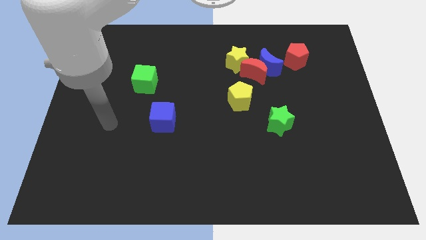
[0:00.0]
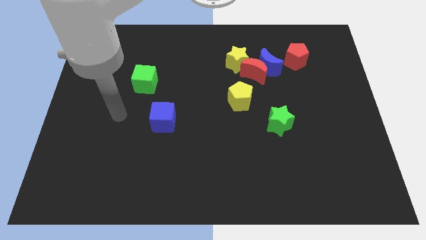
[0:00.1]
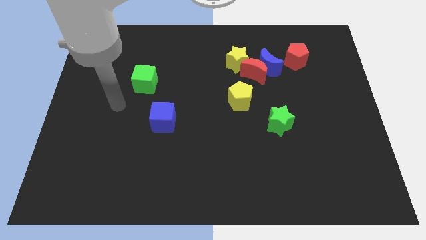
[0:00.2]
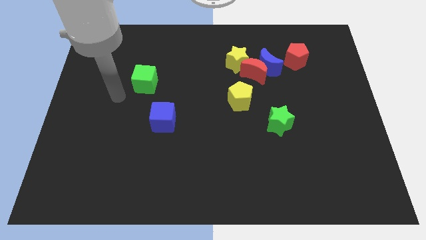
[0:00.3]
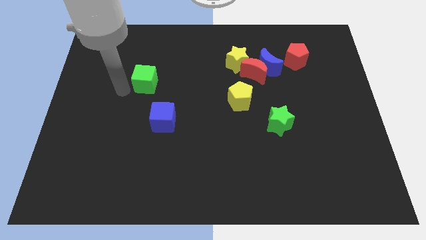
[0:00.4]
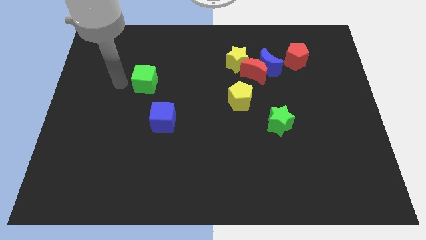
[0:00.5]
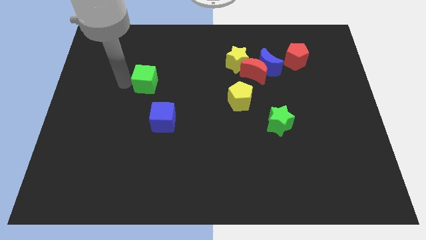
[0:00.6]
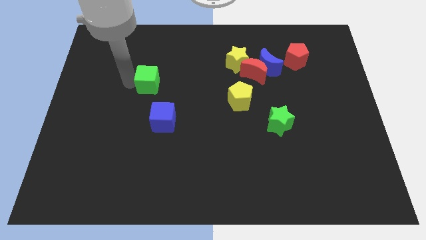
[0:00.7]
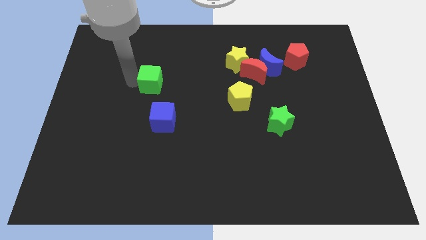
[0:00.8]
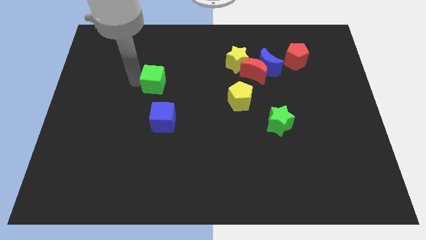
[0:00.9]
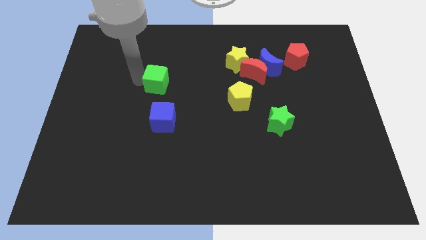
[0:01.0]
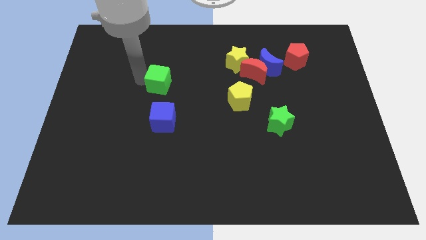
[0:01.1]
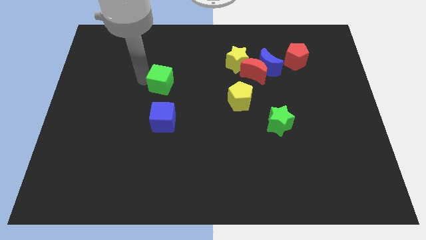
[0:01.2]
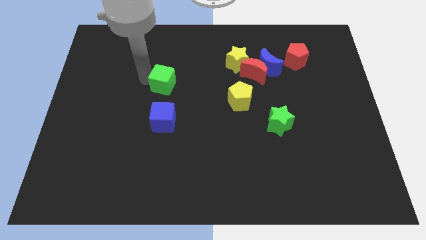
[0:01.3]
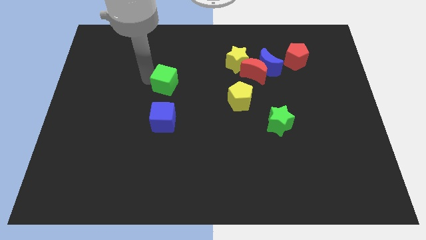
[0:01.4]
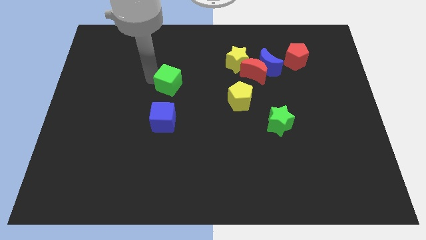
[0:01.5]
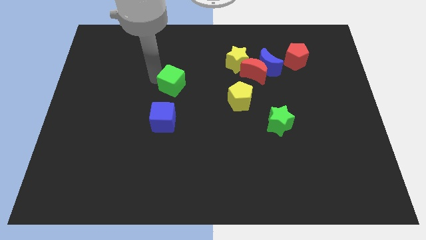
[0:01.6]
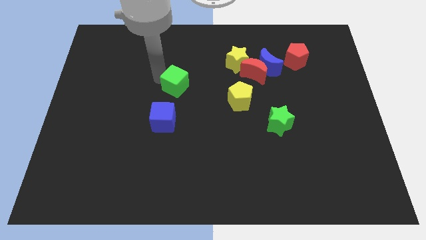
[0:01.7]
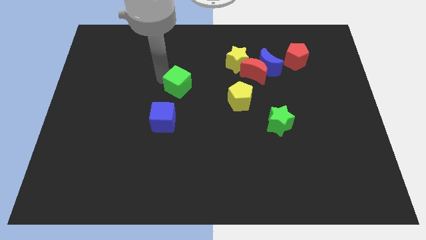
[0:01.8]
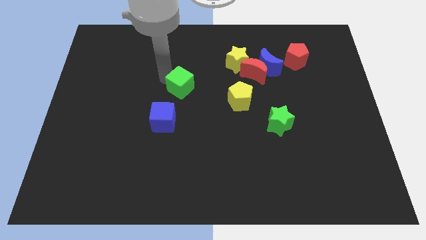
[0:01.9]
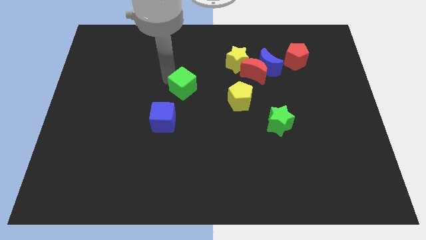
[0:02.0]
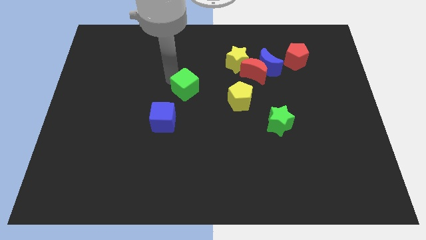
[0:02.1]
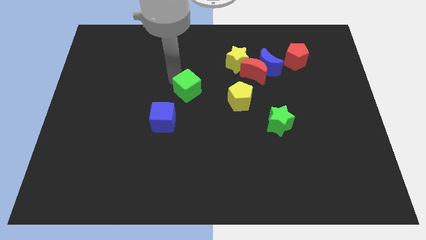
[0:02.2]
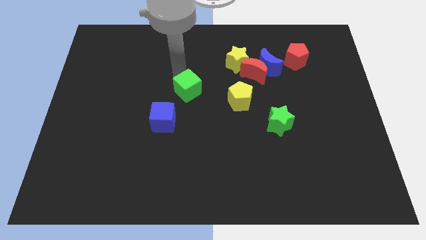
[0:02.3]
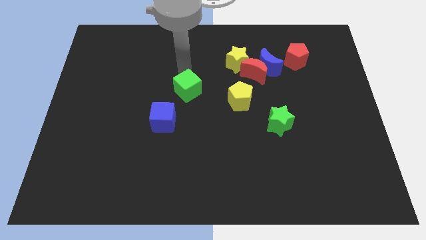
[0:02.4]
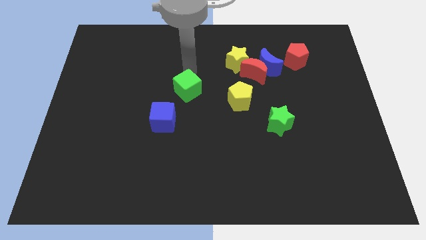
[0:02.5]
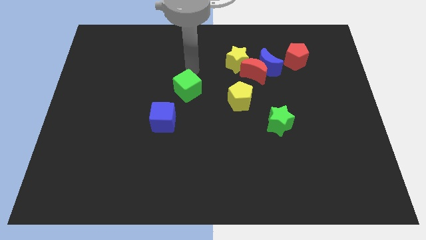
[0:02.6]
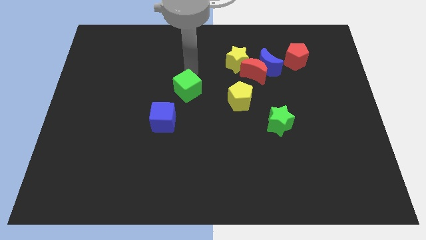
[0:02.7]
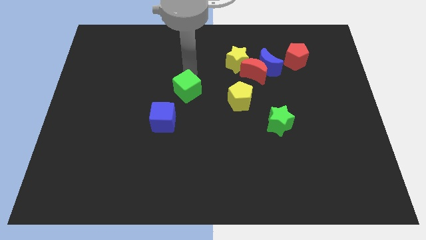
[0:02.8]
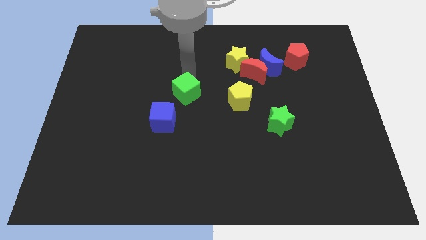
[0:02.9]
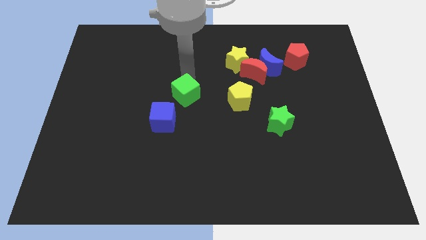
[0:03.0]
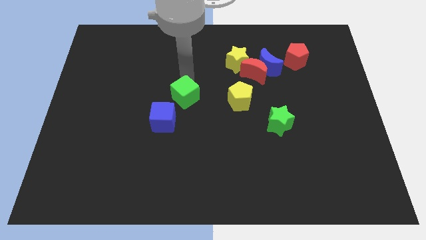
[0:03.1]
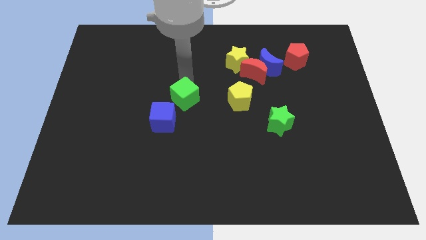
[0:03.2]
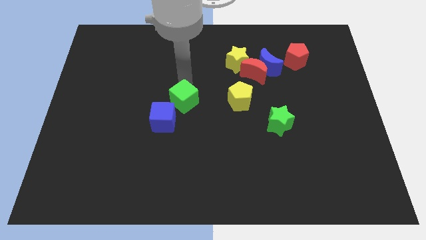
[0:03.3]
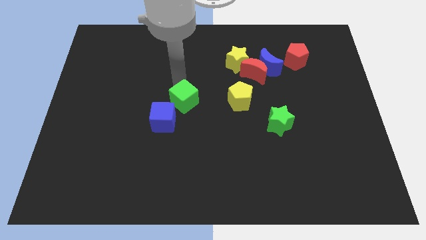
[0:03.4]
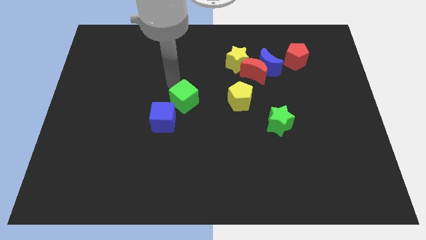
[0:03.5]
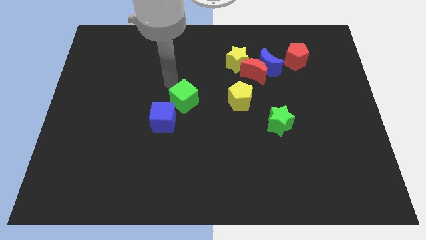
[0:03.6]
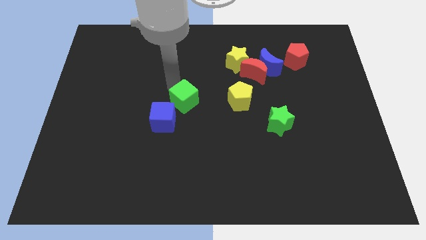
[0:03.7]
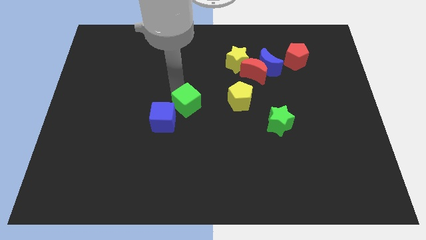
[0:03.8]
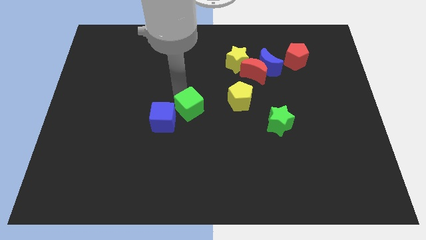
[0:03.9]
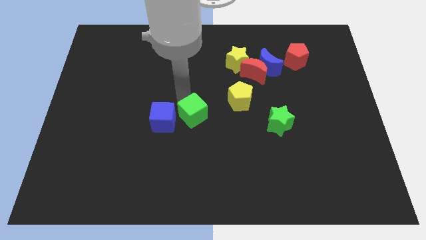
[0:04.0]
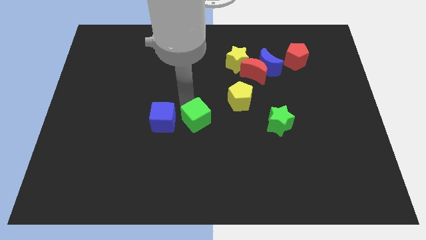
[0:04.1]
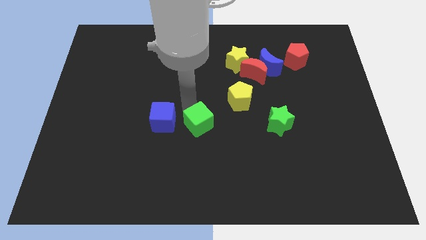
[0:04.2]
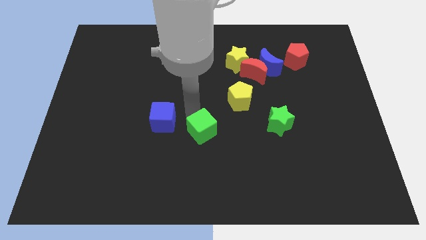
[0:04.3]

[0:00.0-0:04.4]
slide the green cube downwards and right

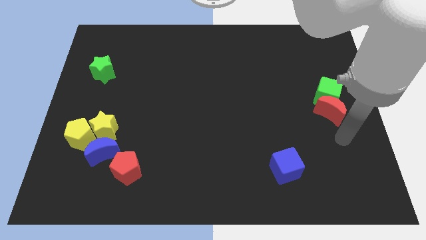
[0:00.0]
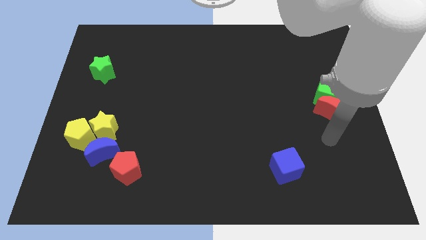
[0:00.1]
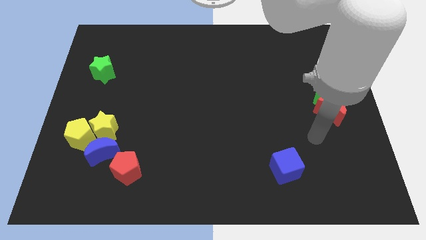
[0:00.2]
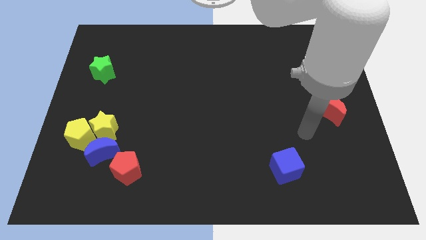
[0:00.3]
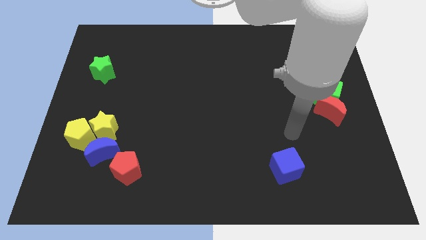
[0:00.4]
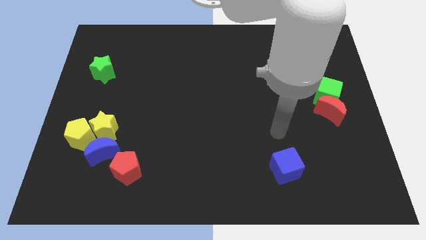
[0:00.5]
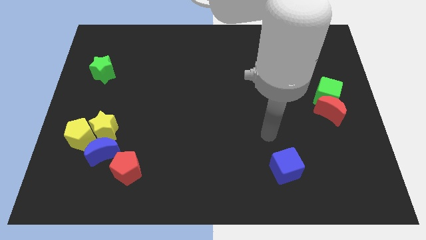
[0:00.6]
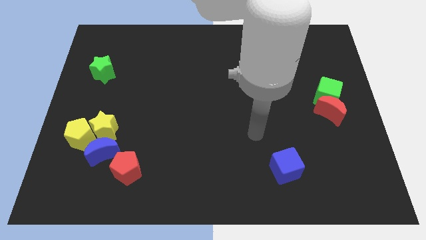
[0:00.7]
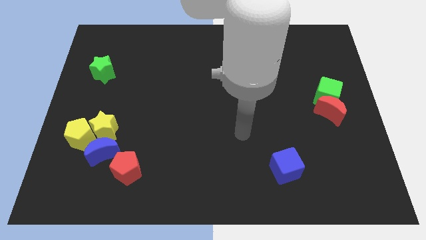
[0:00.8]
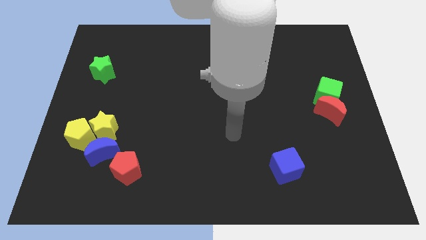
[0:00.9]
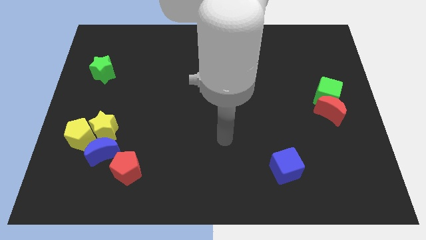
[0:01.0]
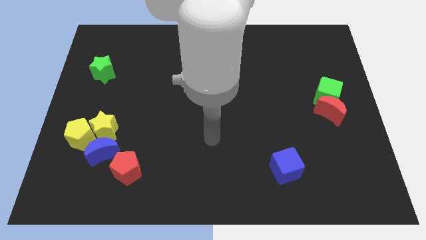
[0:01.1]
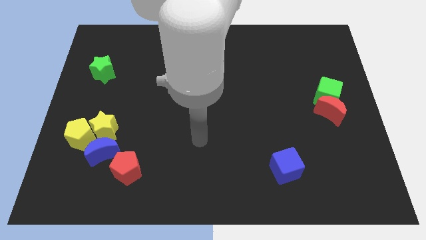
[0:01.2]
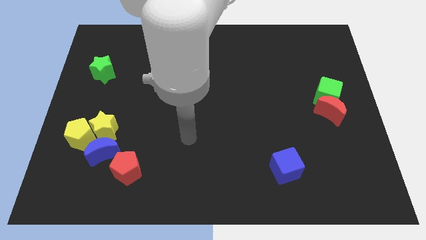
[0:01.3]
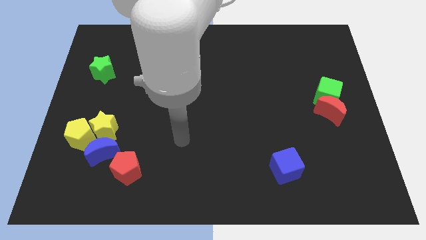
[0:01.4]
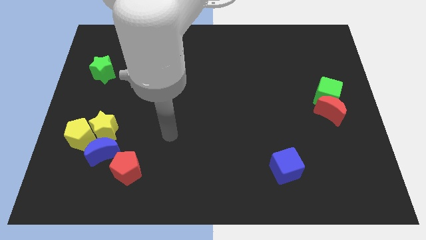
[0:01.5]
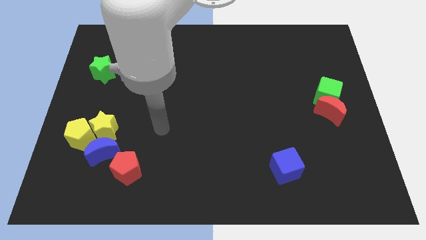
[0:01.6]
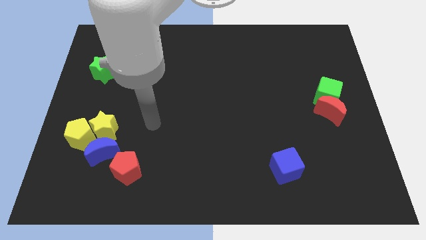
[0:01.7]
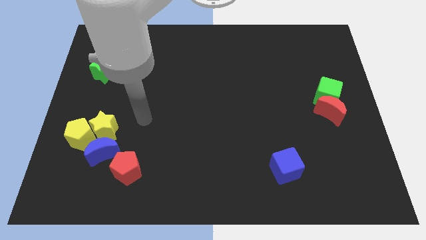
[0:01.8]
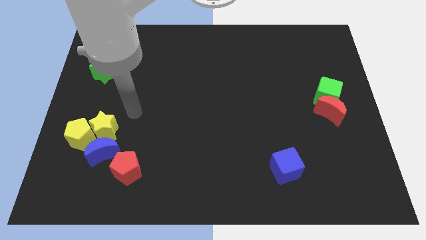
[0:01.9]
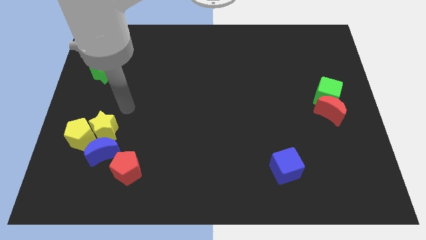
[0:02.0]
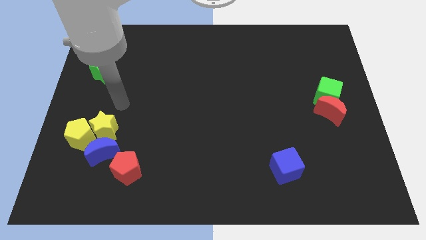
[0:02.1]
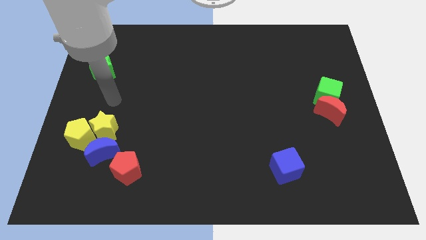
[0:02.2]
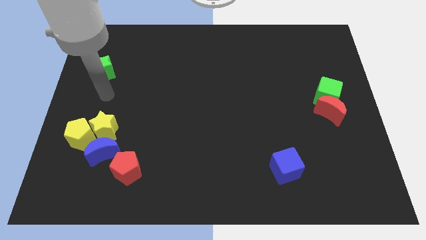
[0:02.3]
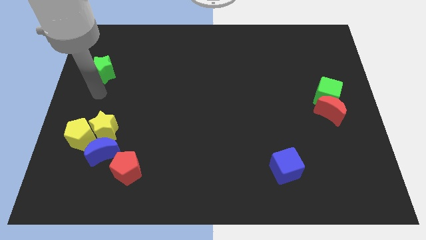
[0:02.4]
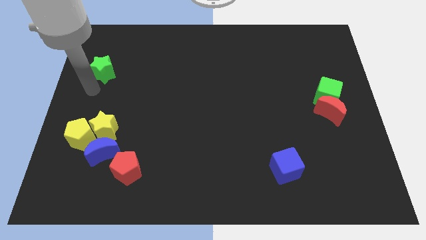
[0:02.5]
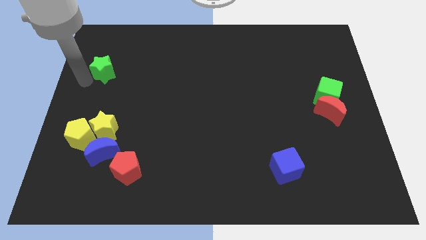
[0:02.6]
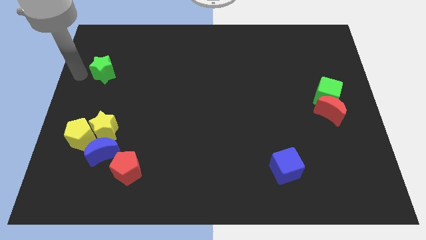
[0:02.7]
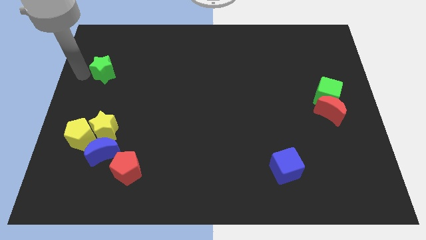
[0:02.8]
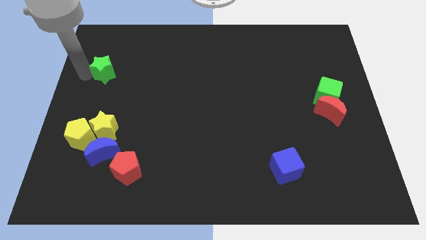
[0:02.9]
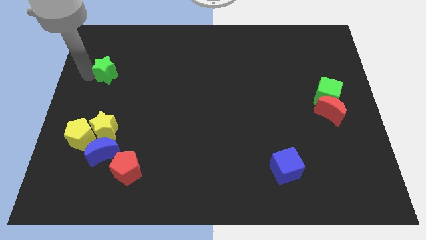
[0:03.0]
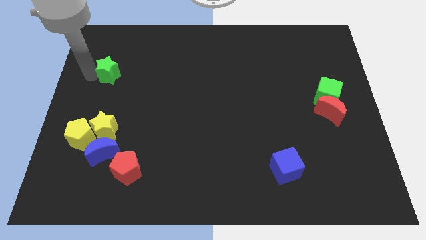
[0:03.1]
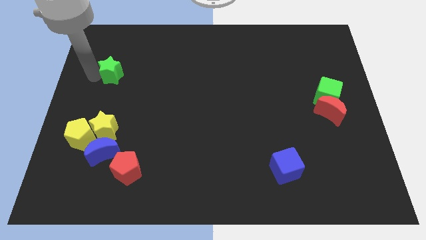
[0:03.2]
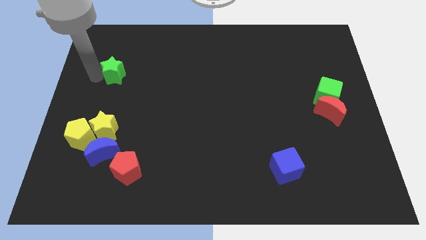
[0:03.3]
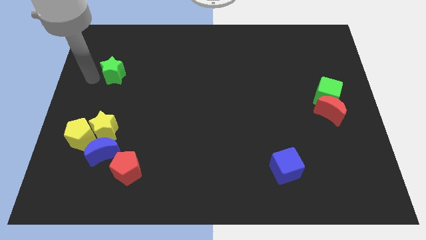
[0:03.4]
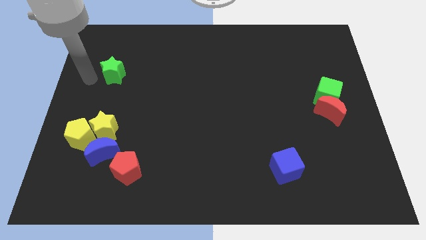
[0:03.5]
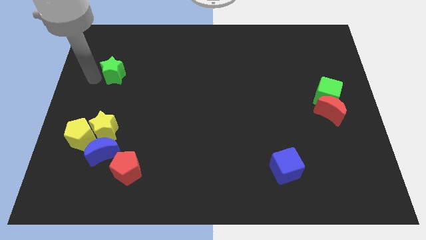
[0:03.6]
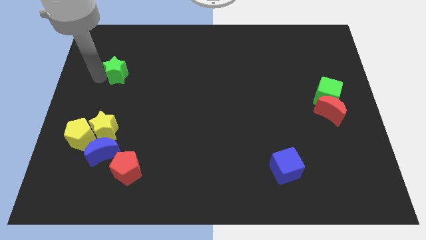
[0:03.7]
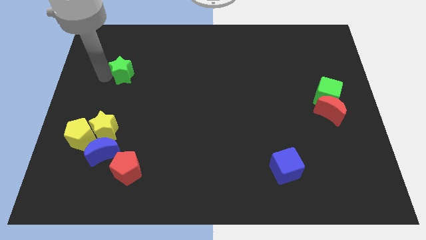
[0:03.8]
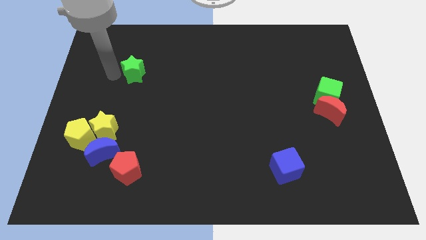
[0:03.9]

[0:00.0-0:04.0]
slightly move the green star to the right
